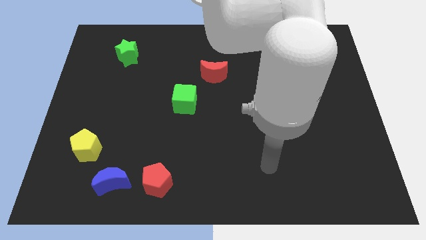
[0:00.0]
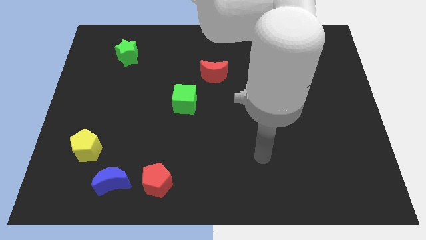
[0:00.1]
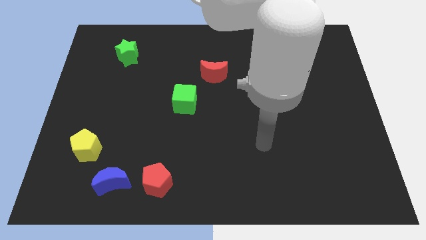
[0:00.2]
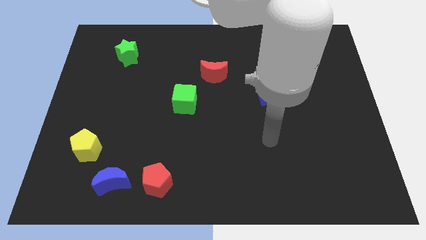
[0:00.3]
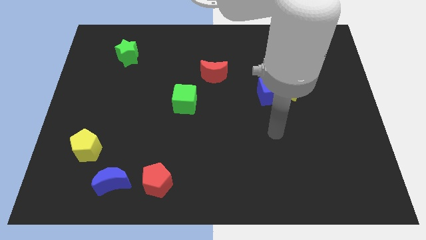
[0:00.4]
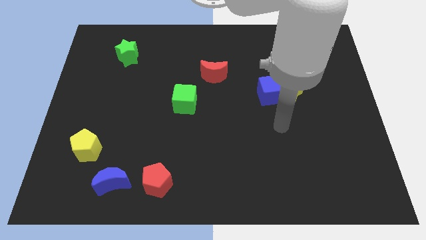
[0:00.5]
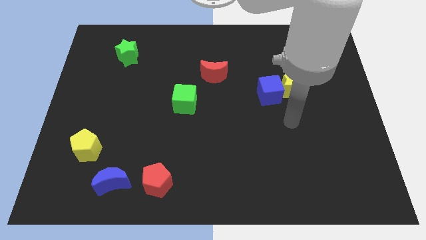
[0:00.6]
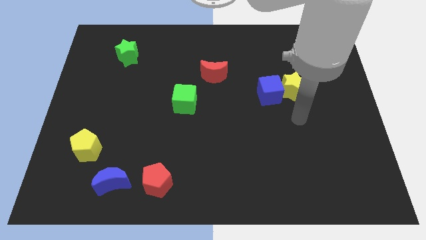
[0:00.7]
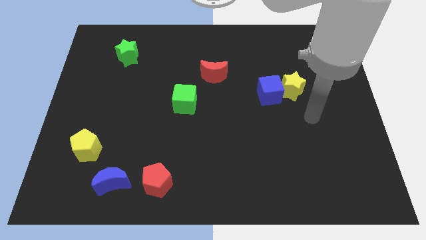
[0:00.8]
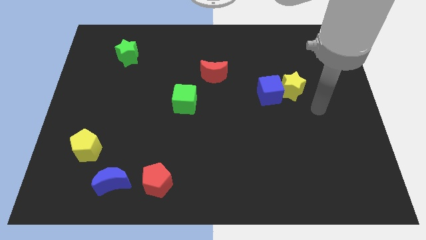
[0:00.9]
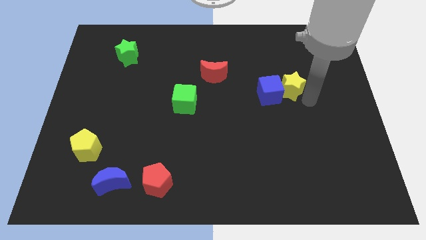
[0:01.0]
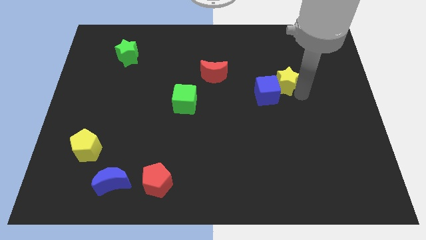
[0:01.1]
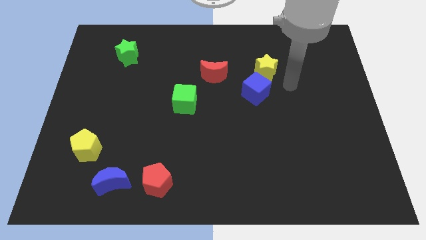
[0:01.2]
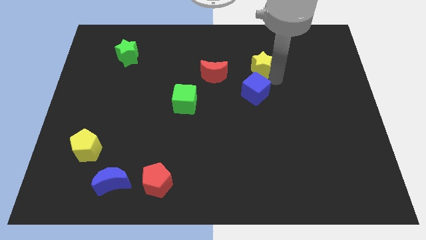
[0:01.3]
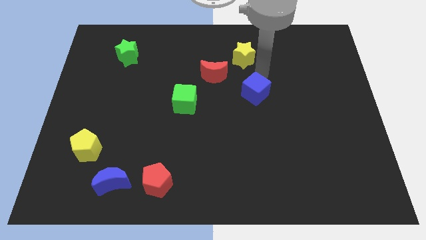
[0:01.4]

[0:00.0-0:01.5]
move the blue cube away from the yellow star

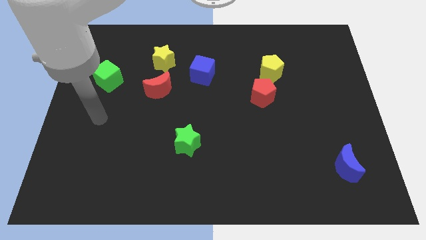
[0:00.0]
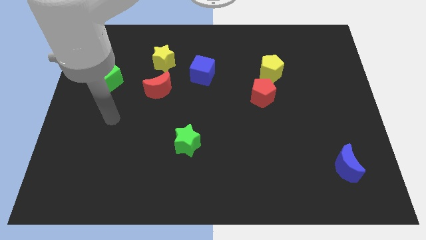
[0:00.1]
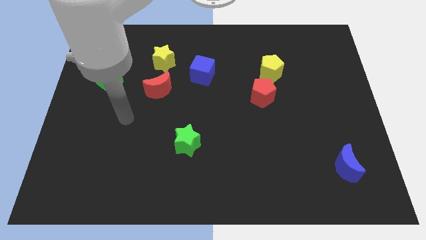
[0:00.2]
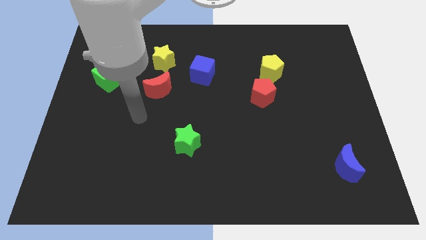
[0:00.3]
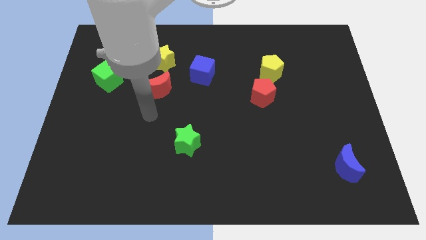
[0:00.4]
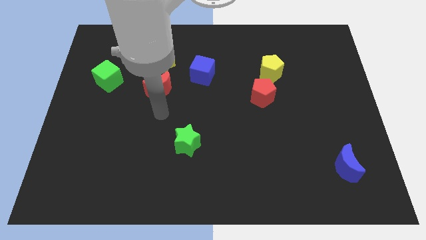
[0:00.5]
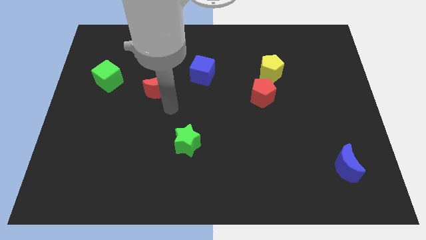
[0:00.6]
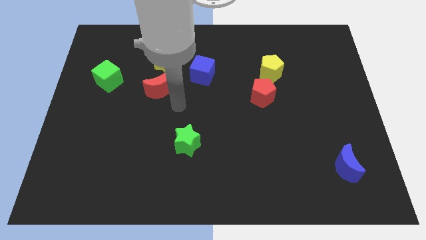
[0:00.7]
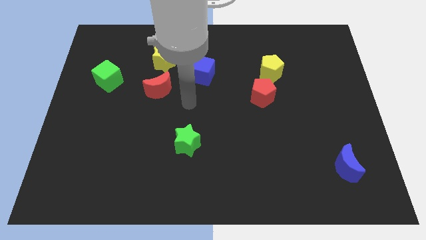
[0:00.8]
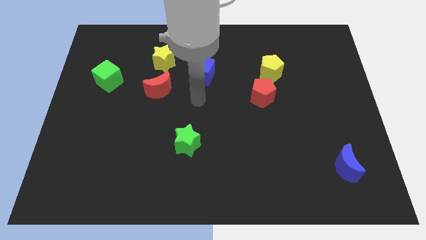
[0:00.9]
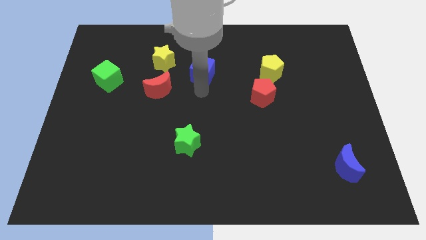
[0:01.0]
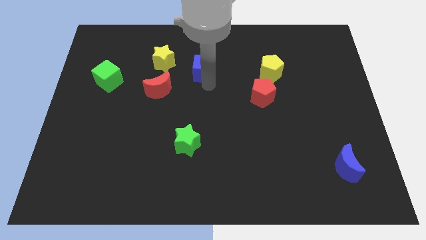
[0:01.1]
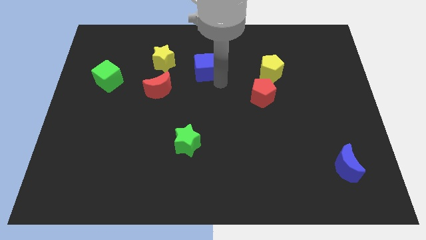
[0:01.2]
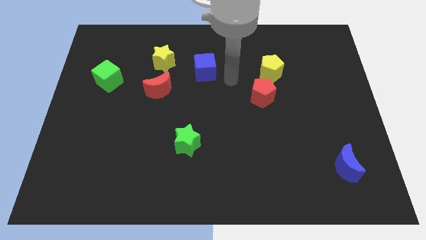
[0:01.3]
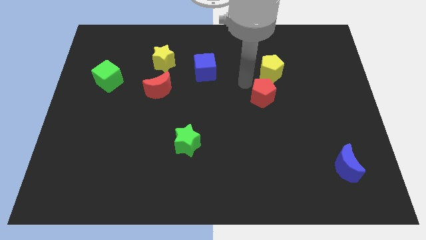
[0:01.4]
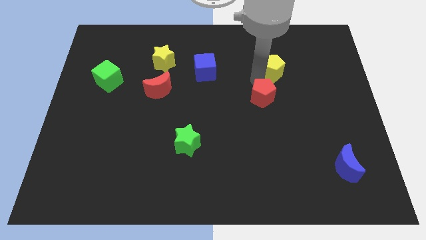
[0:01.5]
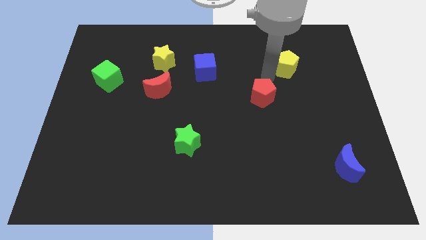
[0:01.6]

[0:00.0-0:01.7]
pull the red pentagon apart from the yellow pentagon

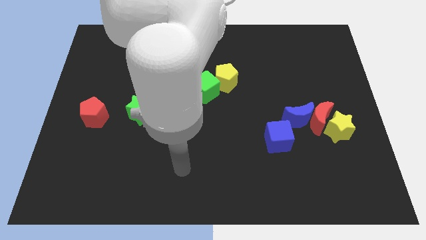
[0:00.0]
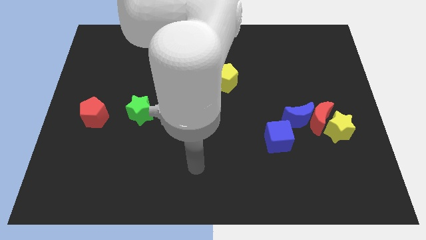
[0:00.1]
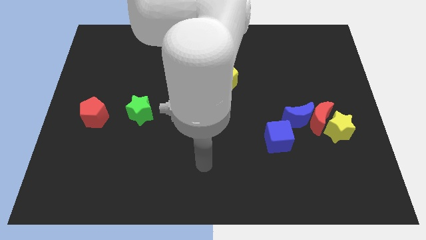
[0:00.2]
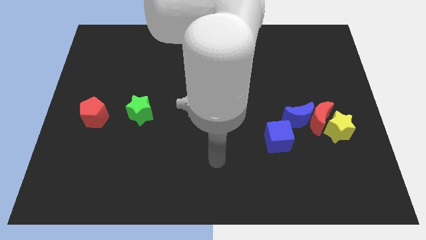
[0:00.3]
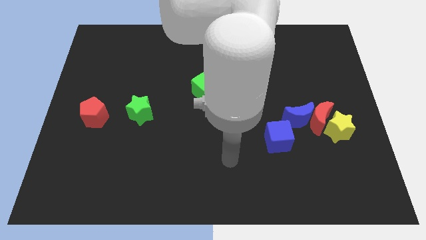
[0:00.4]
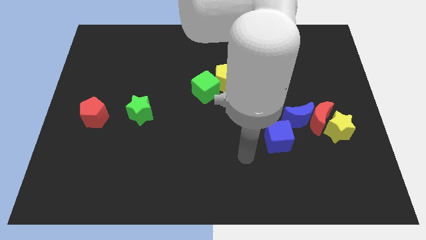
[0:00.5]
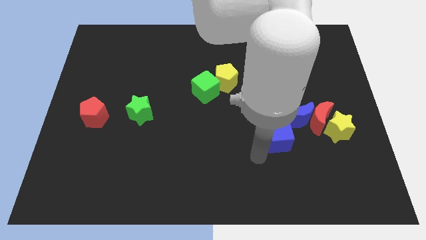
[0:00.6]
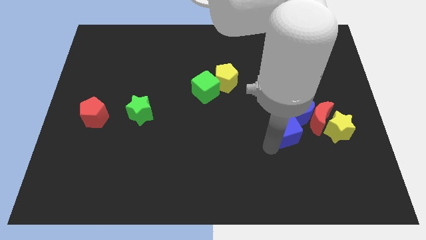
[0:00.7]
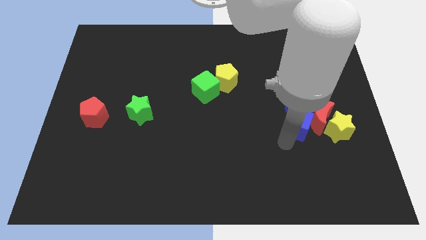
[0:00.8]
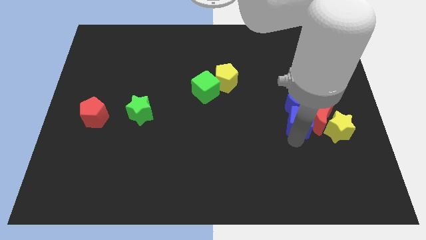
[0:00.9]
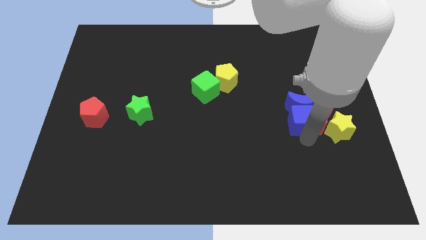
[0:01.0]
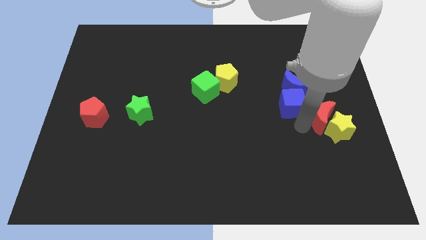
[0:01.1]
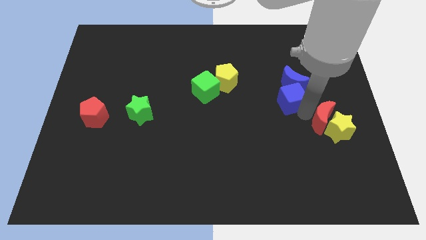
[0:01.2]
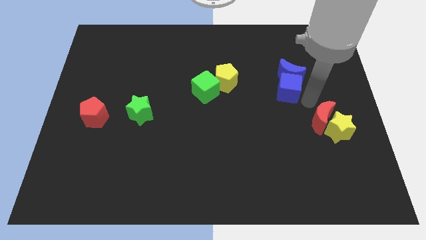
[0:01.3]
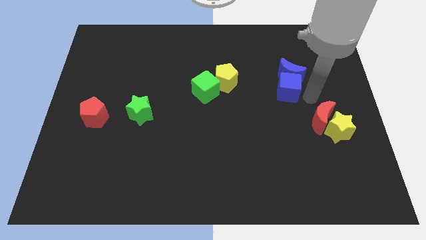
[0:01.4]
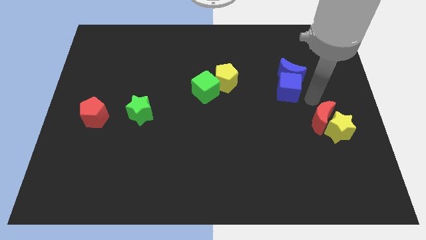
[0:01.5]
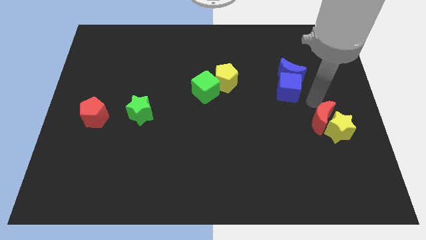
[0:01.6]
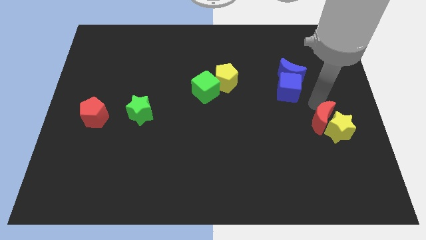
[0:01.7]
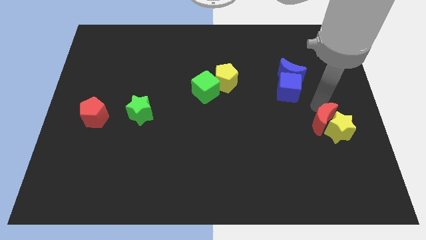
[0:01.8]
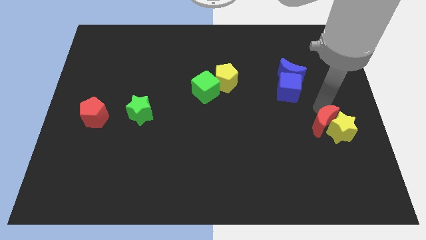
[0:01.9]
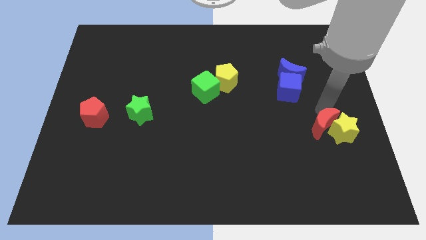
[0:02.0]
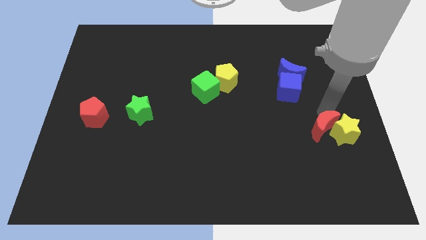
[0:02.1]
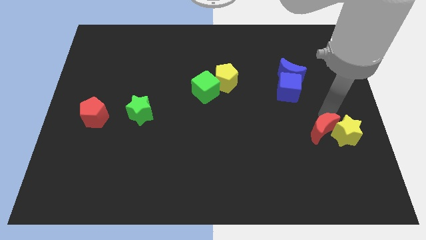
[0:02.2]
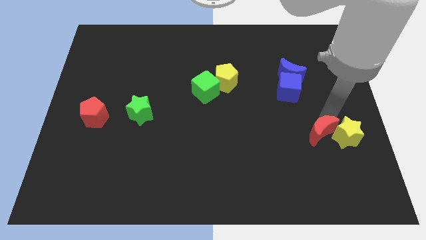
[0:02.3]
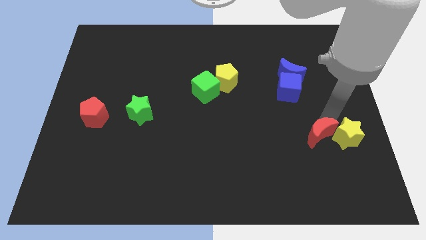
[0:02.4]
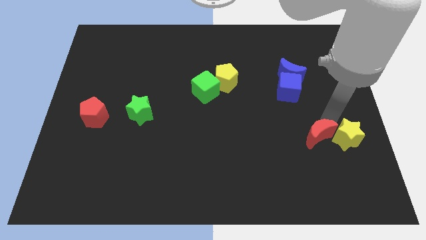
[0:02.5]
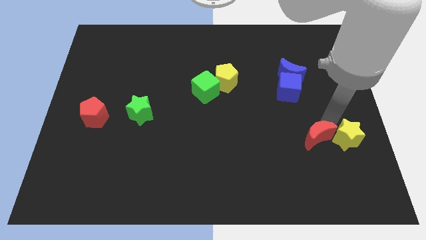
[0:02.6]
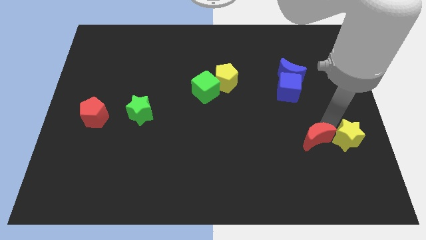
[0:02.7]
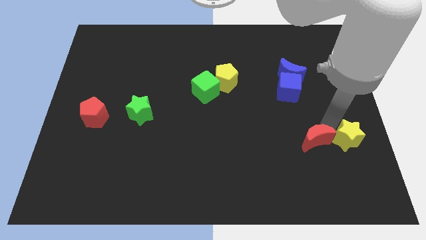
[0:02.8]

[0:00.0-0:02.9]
move the red moon away from the blue moon and yellow star

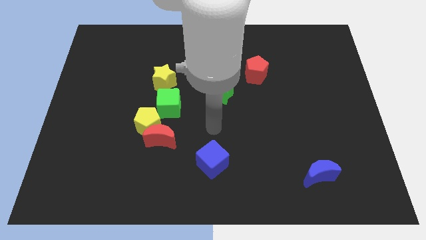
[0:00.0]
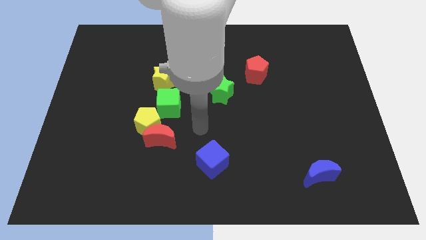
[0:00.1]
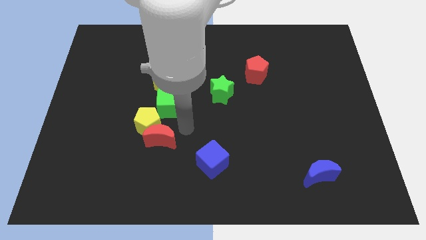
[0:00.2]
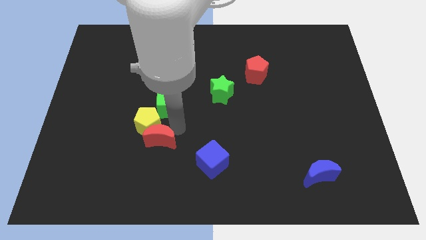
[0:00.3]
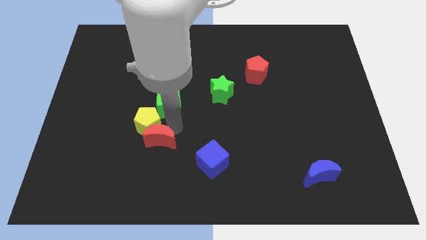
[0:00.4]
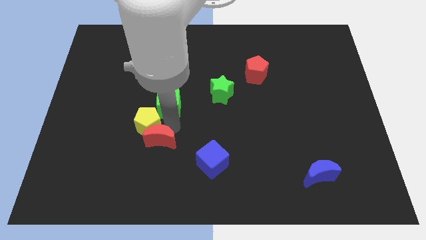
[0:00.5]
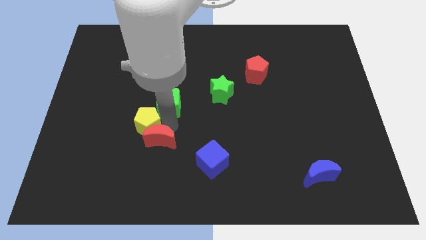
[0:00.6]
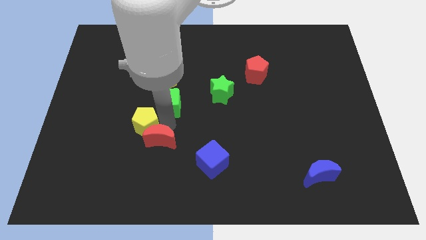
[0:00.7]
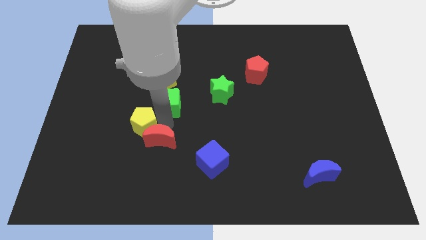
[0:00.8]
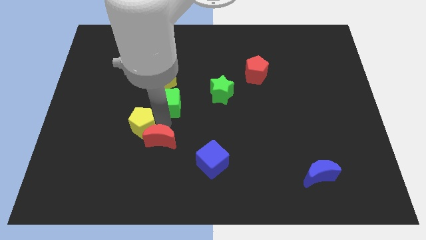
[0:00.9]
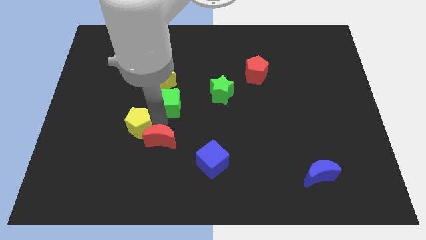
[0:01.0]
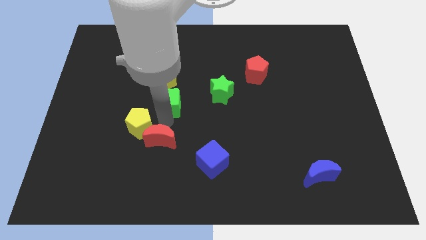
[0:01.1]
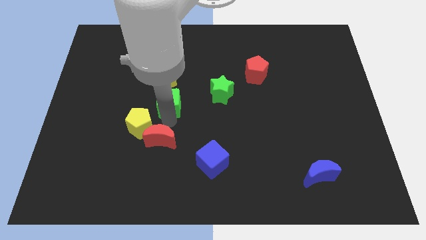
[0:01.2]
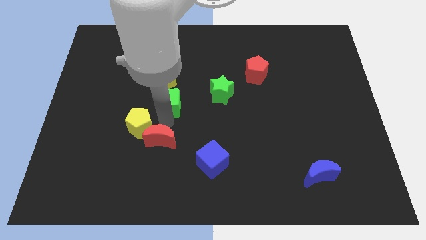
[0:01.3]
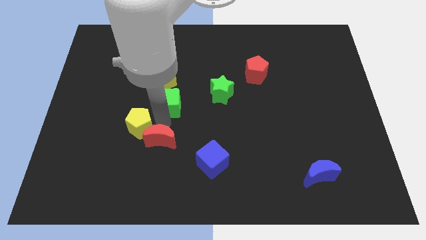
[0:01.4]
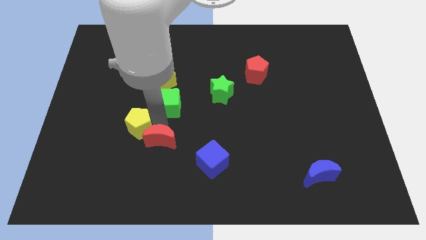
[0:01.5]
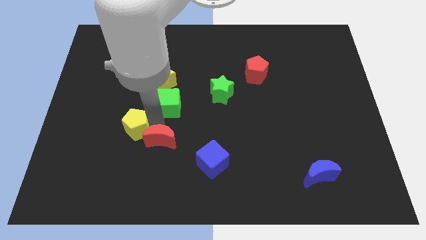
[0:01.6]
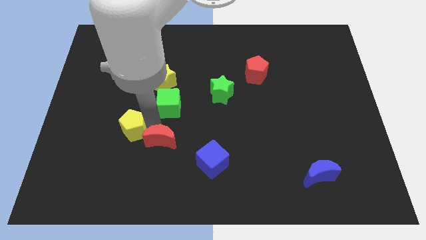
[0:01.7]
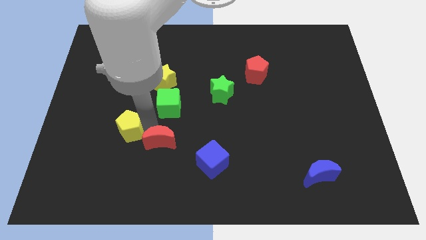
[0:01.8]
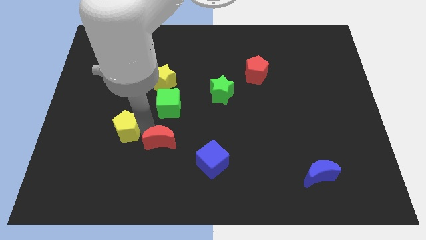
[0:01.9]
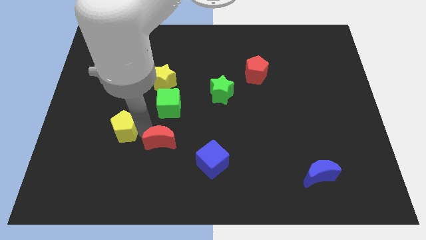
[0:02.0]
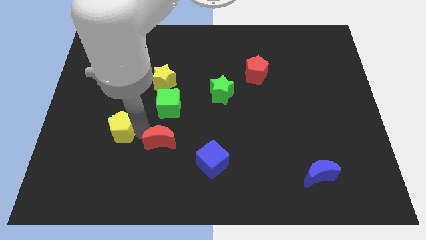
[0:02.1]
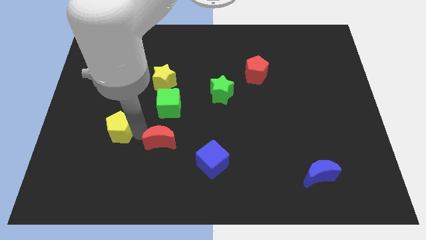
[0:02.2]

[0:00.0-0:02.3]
move the yellow pentagon away from the red moon and green cube

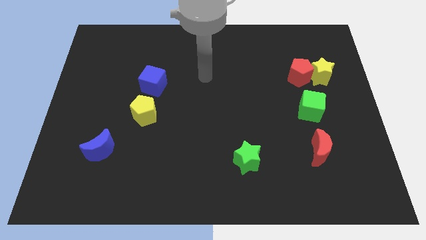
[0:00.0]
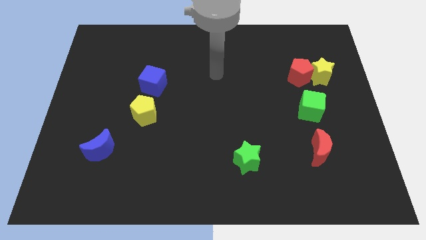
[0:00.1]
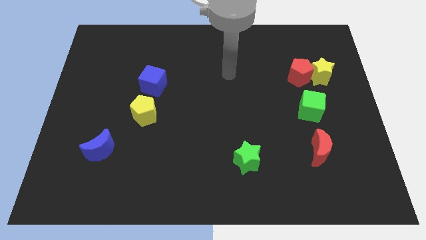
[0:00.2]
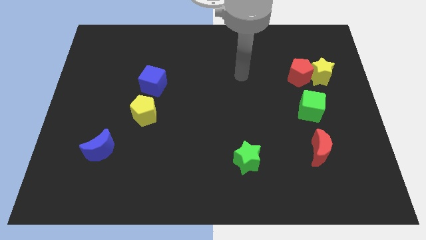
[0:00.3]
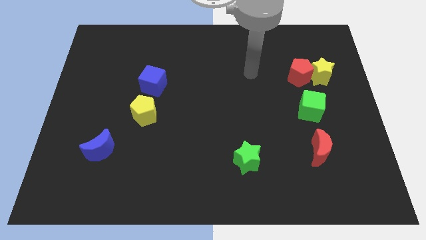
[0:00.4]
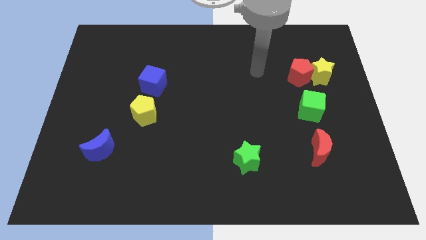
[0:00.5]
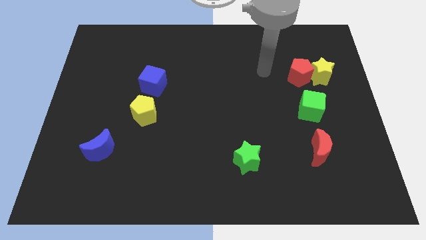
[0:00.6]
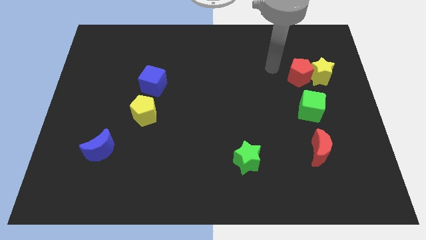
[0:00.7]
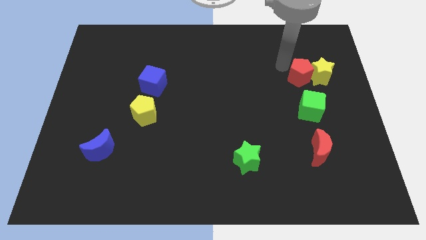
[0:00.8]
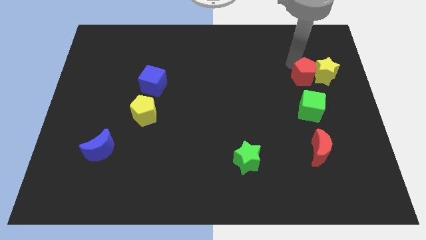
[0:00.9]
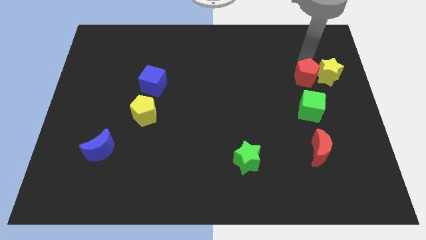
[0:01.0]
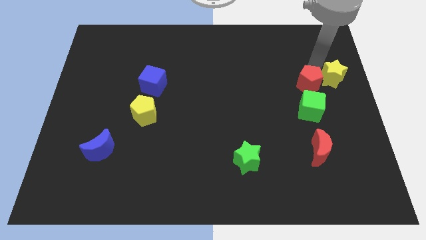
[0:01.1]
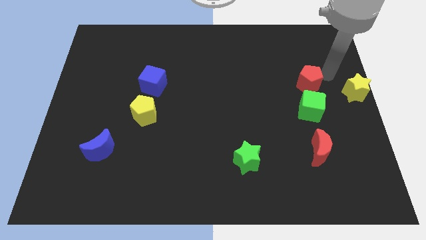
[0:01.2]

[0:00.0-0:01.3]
move the red pentagon away from the yellow star
